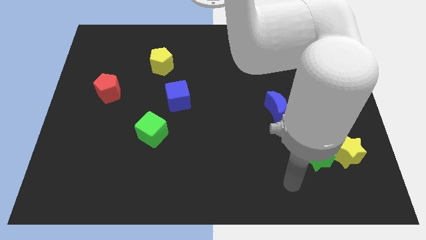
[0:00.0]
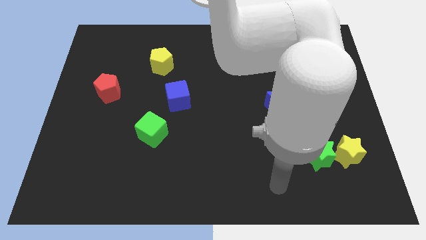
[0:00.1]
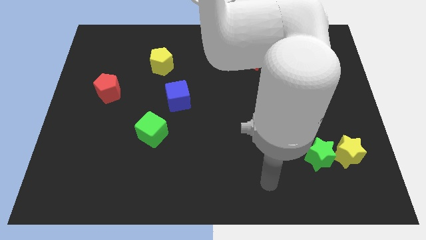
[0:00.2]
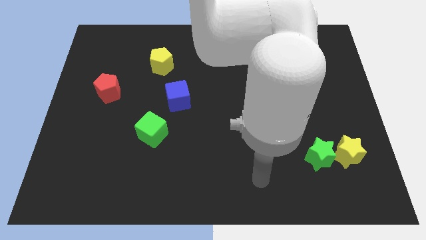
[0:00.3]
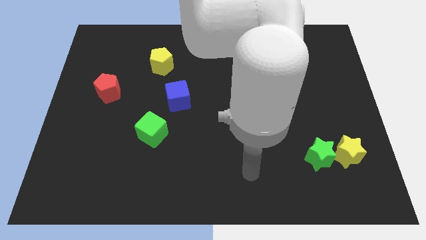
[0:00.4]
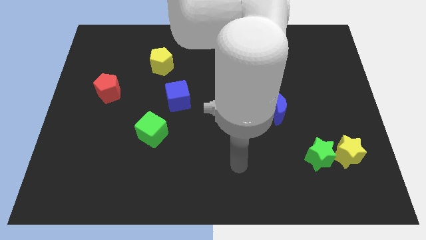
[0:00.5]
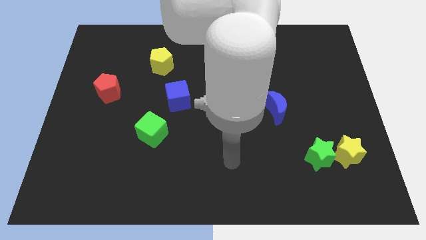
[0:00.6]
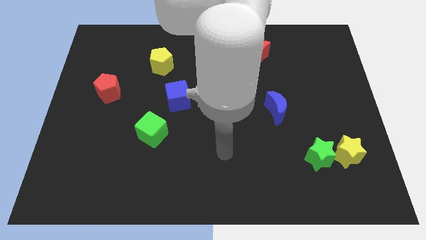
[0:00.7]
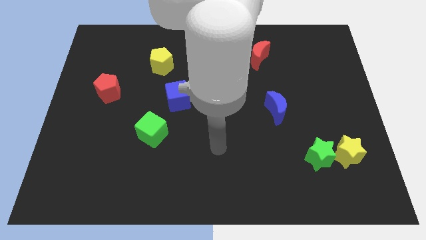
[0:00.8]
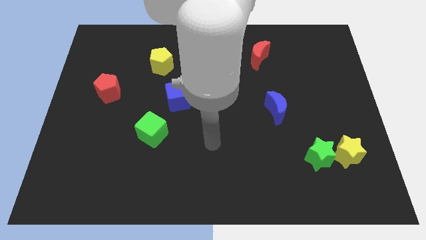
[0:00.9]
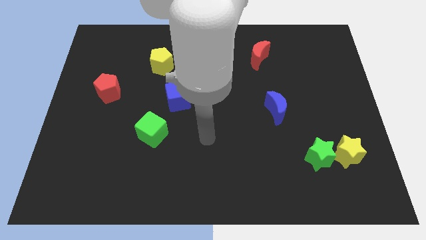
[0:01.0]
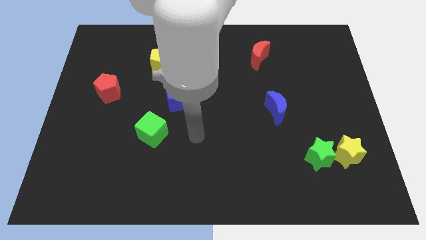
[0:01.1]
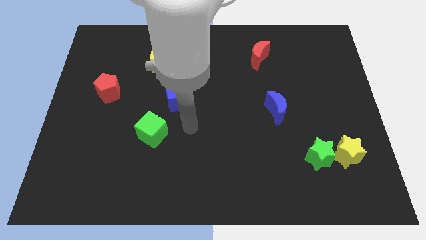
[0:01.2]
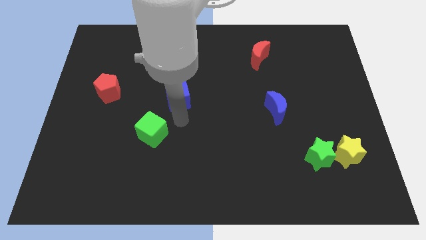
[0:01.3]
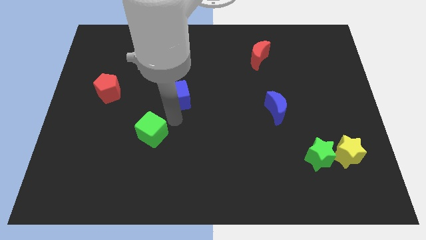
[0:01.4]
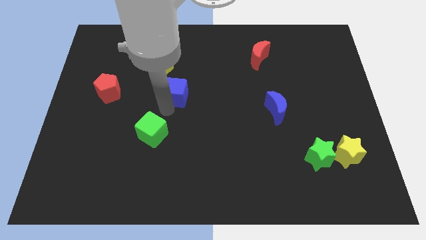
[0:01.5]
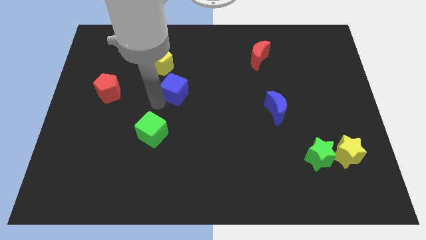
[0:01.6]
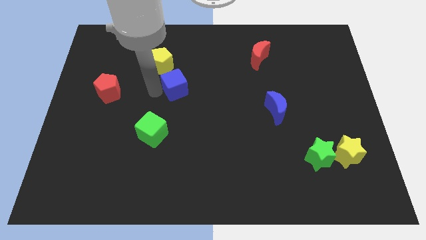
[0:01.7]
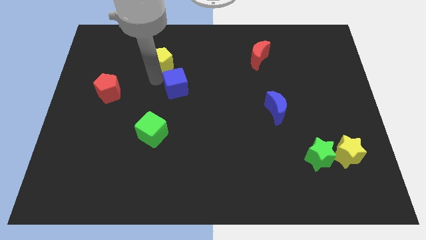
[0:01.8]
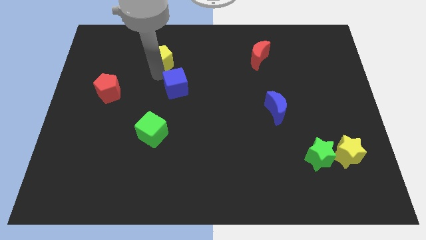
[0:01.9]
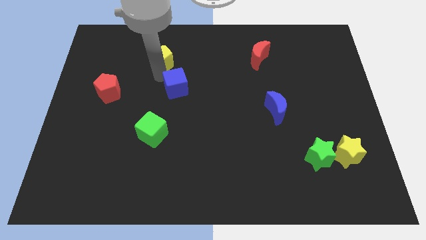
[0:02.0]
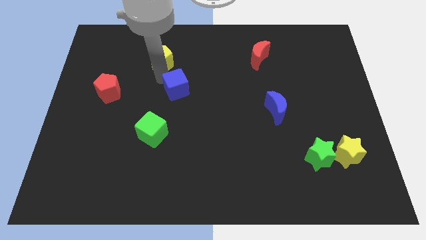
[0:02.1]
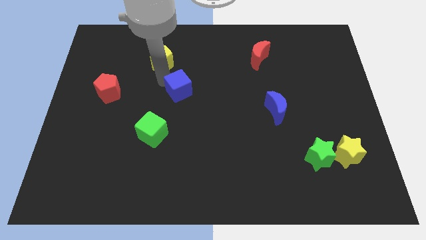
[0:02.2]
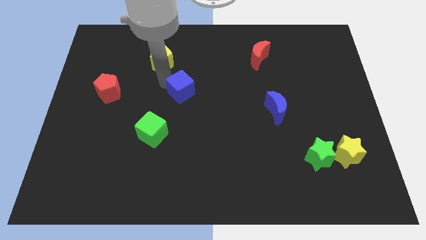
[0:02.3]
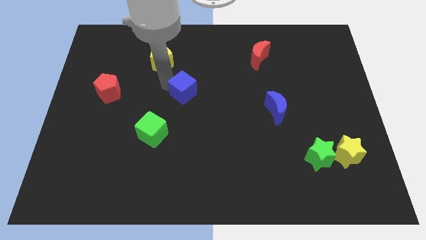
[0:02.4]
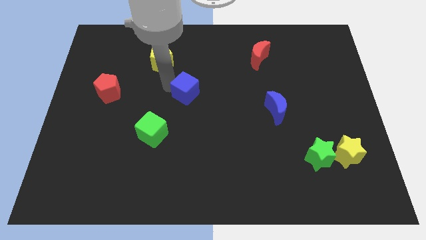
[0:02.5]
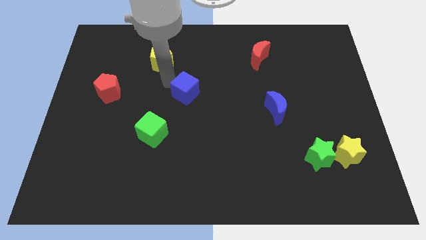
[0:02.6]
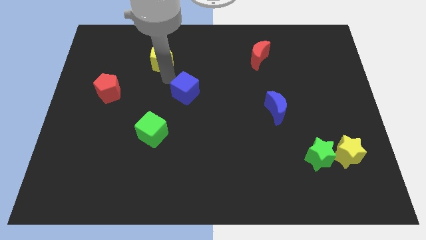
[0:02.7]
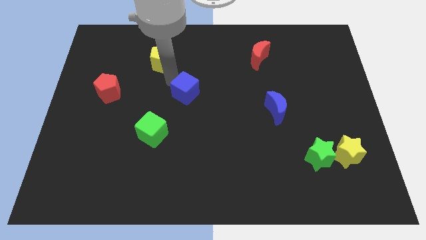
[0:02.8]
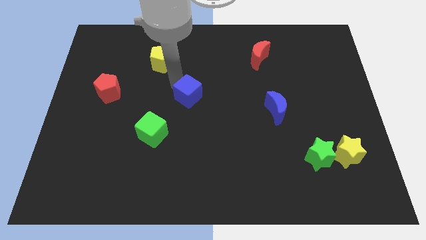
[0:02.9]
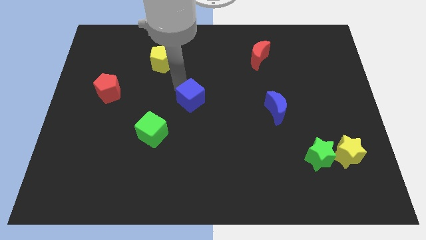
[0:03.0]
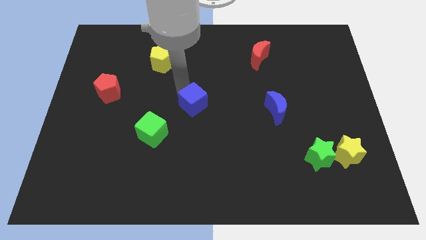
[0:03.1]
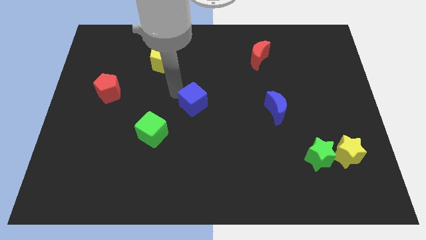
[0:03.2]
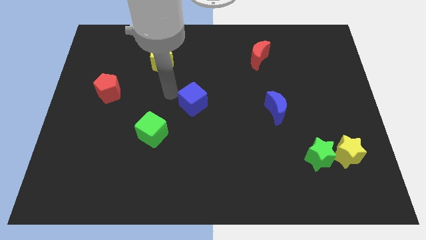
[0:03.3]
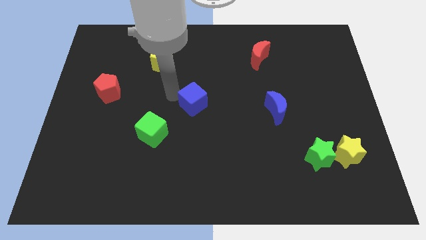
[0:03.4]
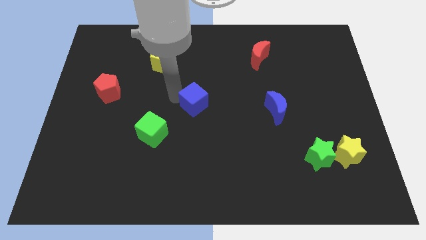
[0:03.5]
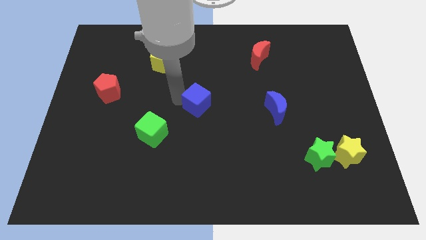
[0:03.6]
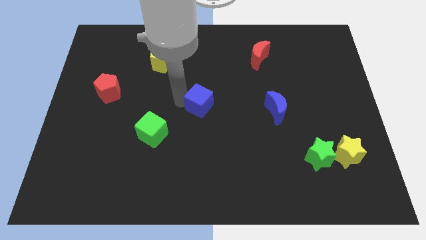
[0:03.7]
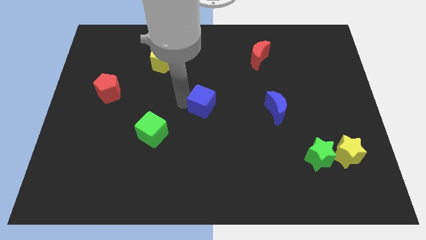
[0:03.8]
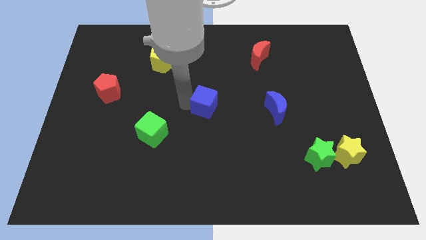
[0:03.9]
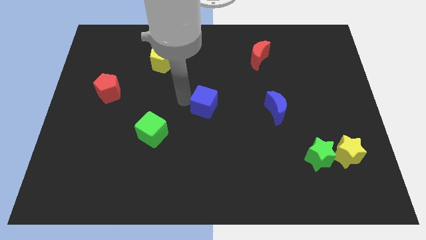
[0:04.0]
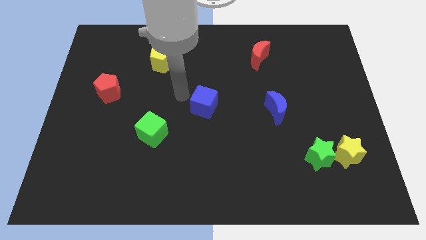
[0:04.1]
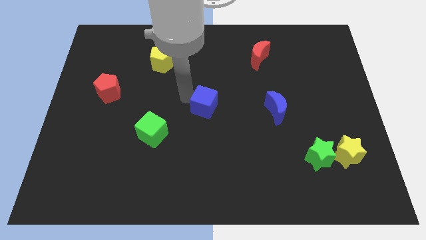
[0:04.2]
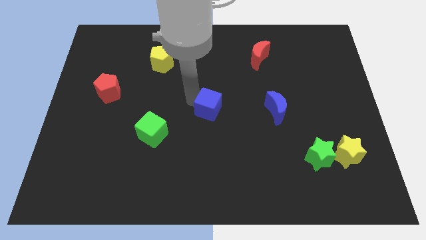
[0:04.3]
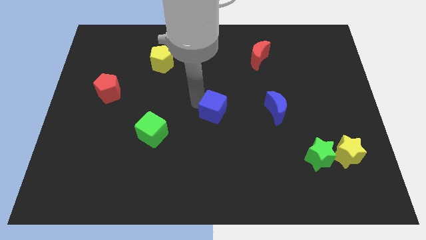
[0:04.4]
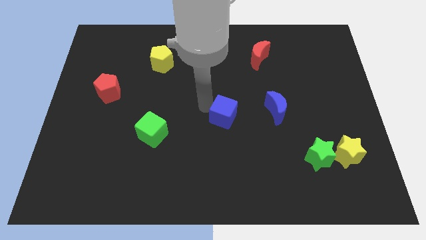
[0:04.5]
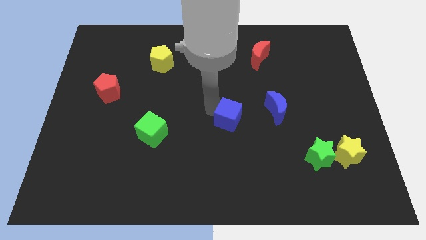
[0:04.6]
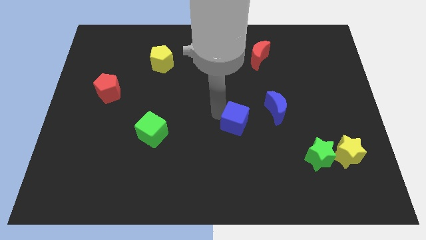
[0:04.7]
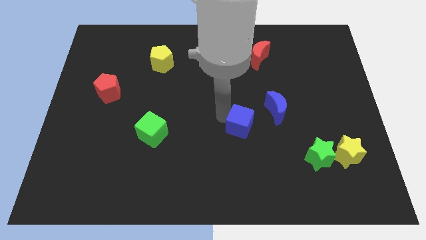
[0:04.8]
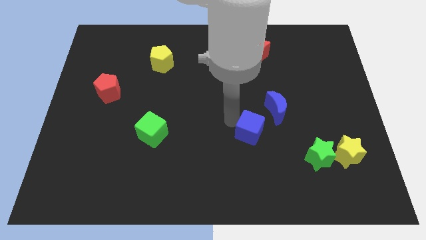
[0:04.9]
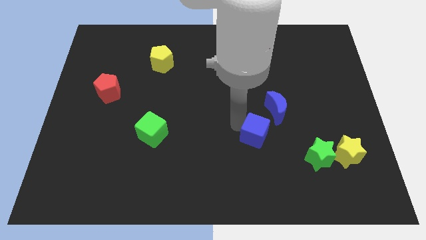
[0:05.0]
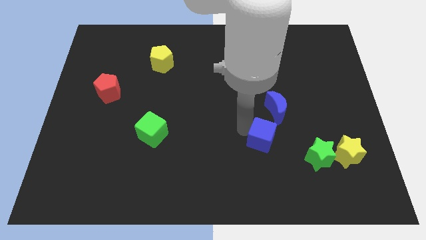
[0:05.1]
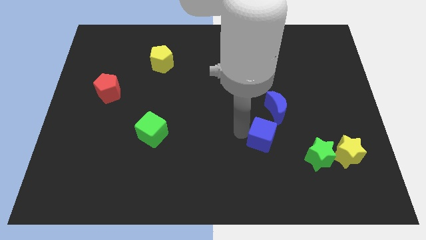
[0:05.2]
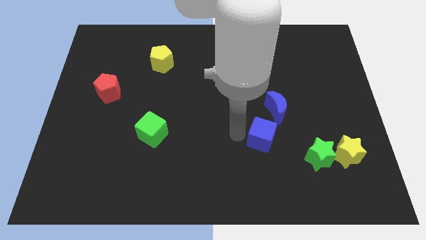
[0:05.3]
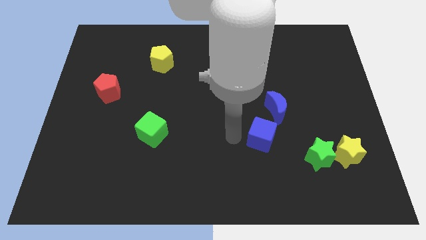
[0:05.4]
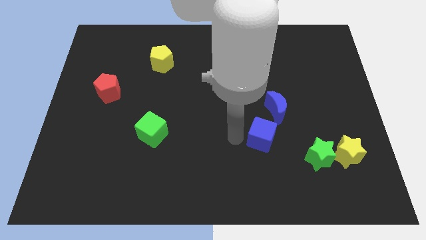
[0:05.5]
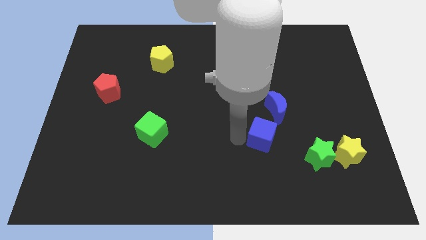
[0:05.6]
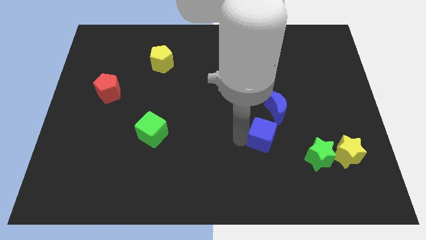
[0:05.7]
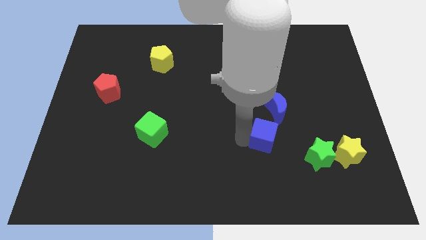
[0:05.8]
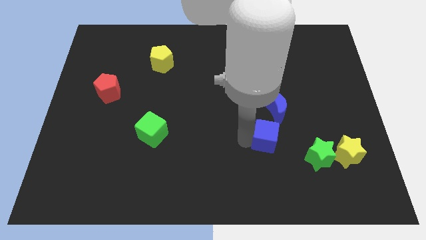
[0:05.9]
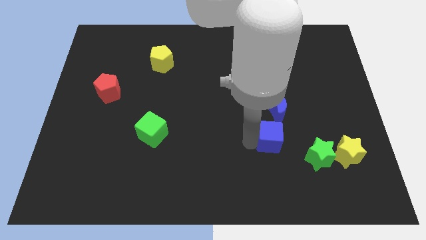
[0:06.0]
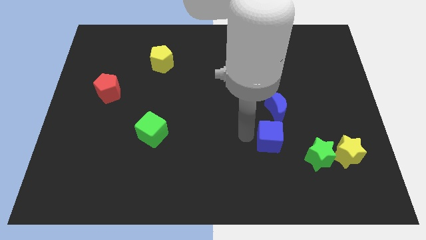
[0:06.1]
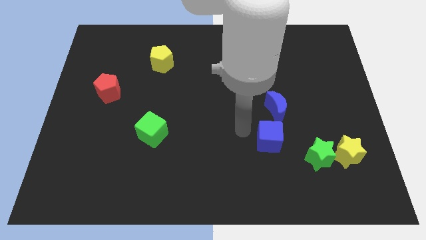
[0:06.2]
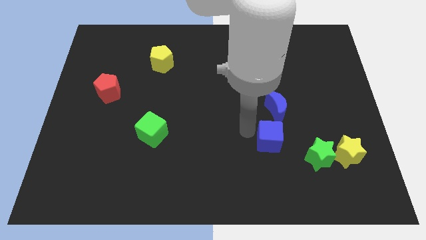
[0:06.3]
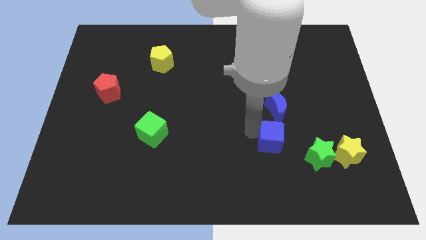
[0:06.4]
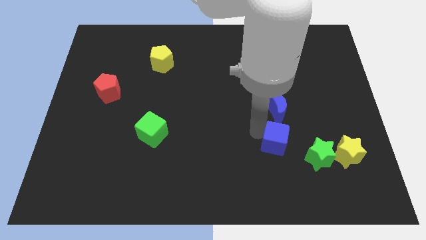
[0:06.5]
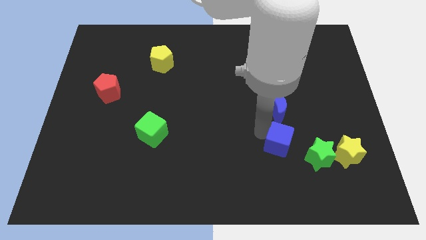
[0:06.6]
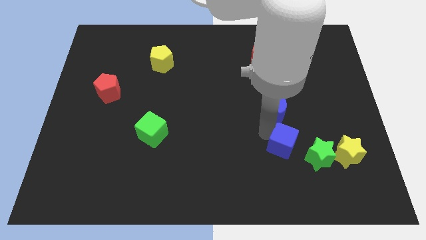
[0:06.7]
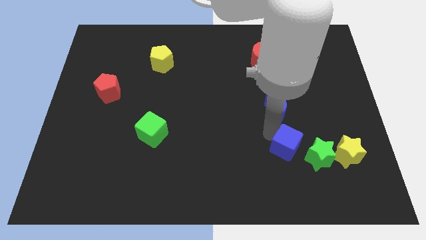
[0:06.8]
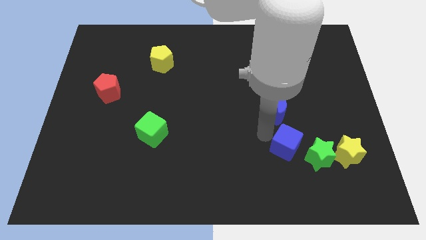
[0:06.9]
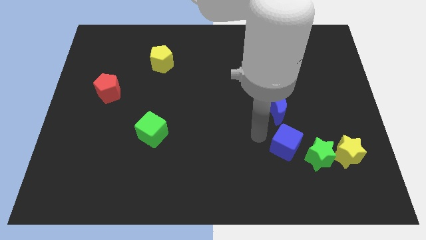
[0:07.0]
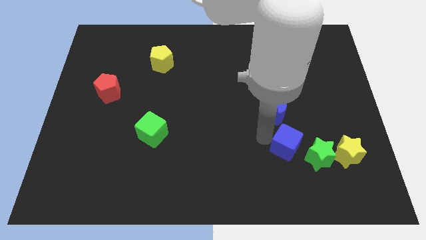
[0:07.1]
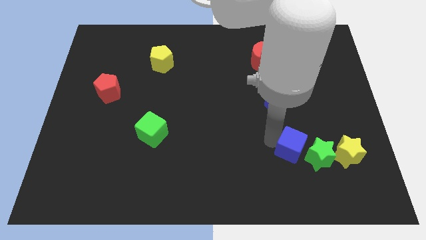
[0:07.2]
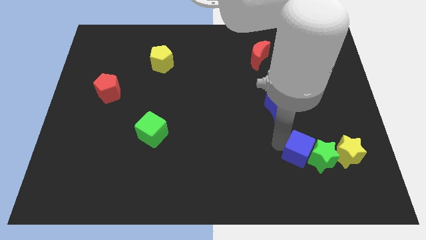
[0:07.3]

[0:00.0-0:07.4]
push the blue cube close to the green star

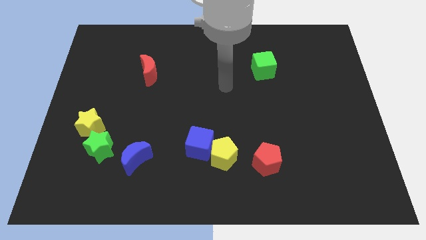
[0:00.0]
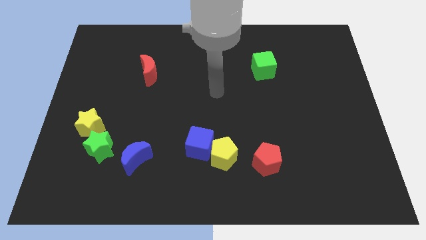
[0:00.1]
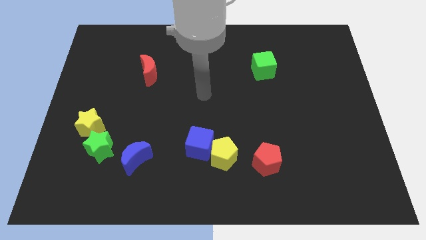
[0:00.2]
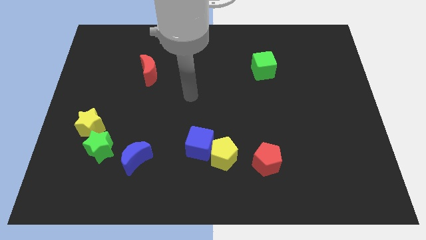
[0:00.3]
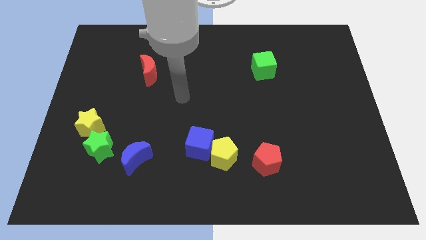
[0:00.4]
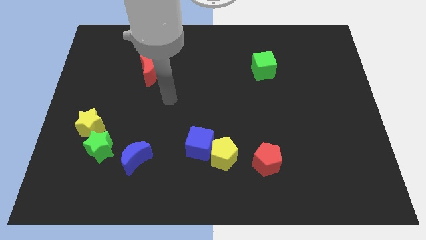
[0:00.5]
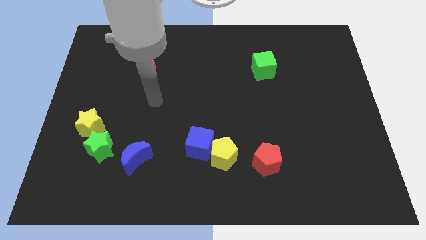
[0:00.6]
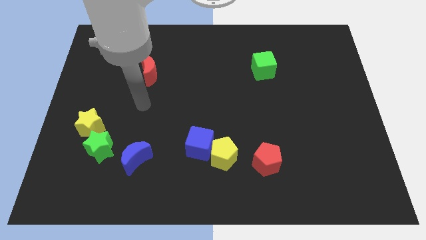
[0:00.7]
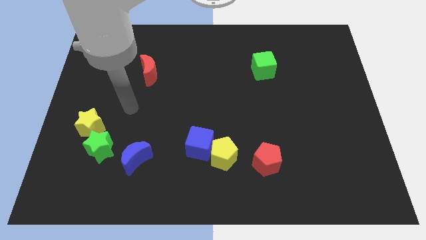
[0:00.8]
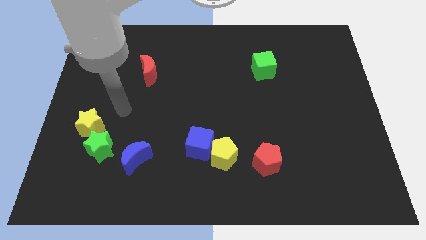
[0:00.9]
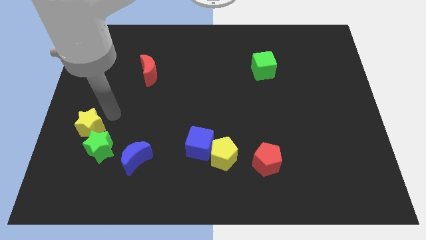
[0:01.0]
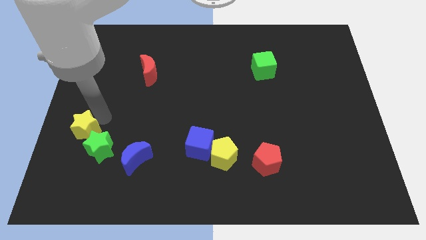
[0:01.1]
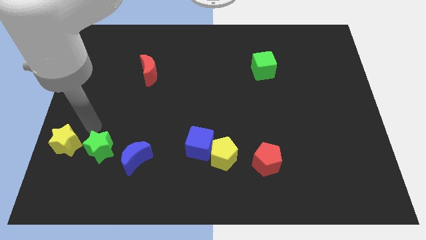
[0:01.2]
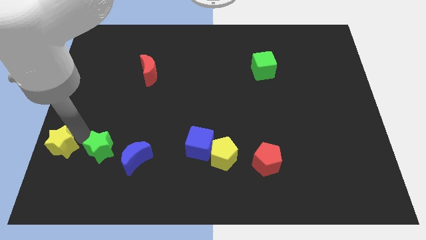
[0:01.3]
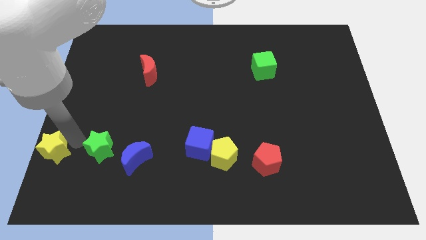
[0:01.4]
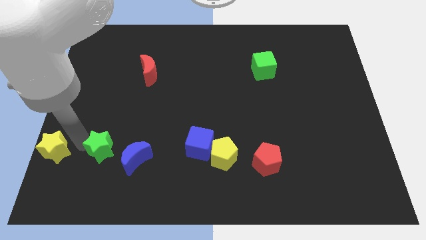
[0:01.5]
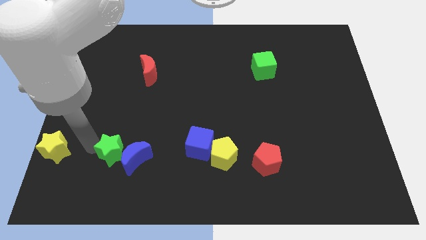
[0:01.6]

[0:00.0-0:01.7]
put the green star towards the blue moon
